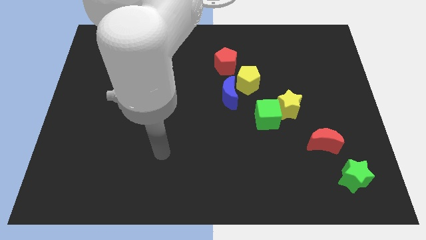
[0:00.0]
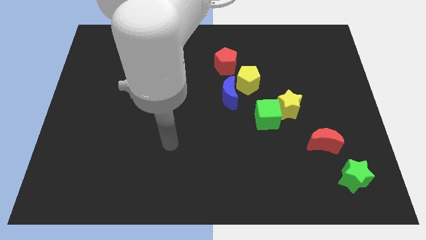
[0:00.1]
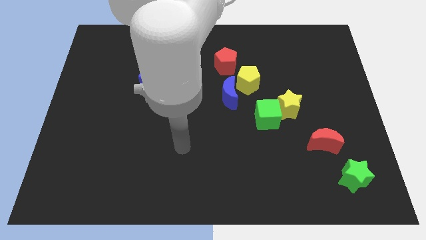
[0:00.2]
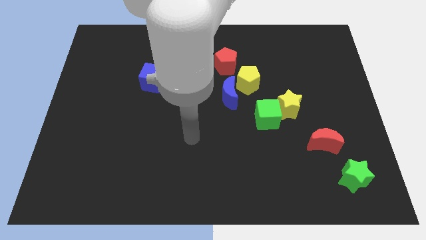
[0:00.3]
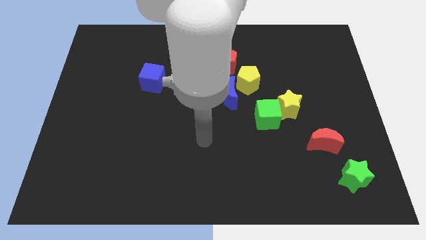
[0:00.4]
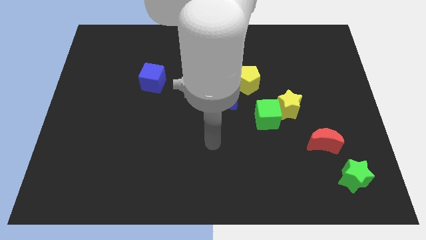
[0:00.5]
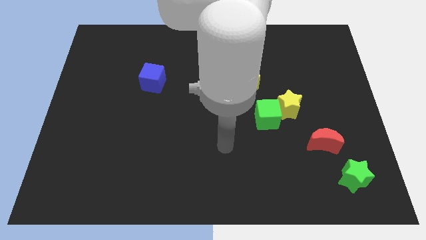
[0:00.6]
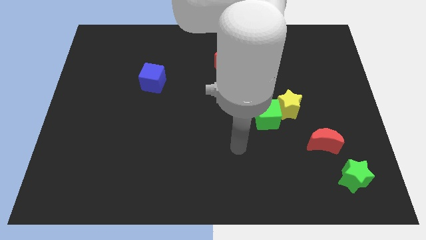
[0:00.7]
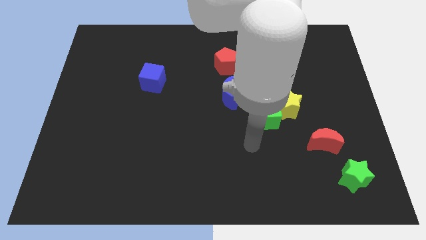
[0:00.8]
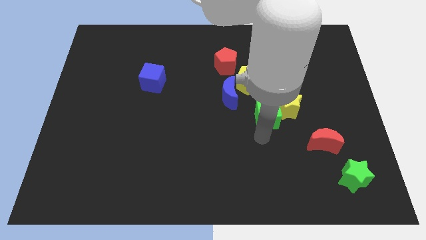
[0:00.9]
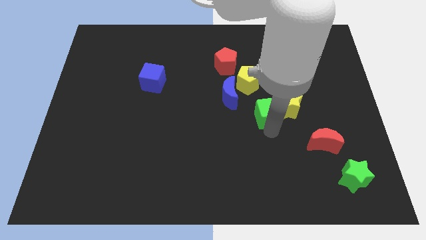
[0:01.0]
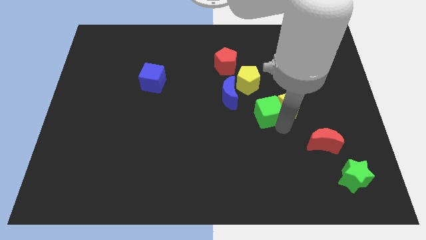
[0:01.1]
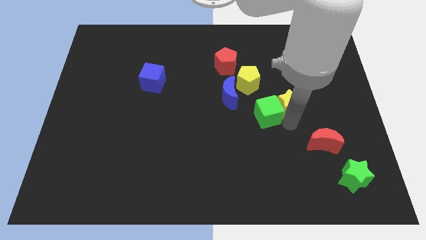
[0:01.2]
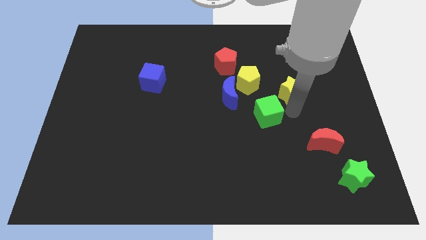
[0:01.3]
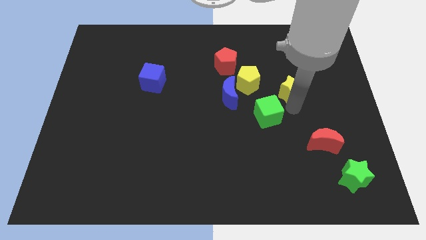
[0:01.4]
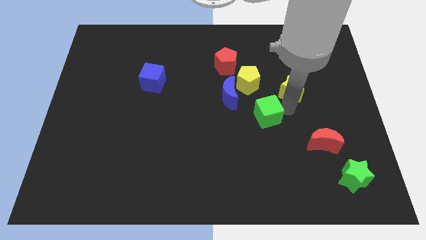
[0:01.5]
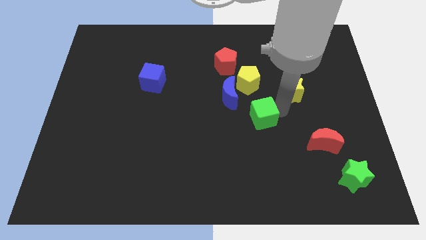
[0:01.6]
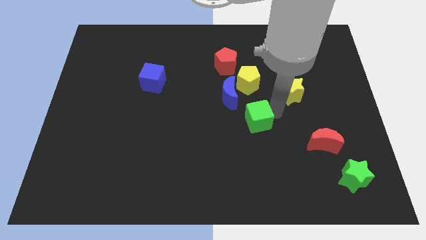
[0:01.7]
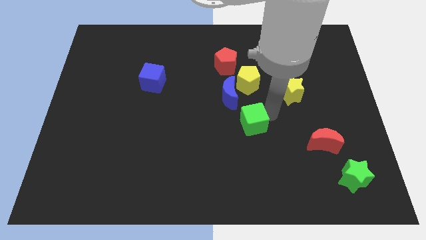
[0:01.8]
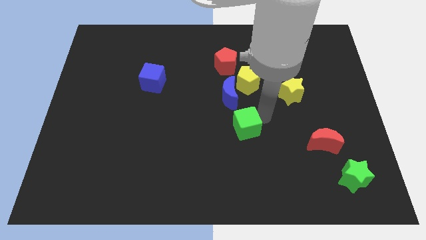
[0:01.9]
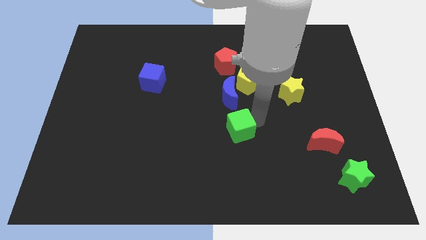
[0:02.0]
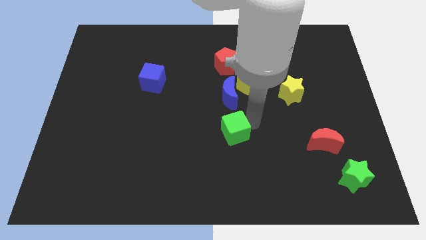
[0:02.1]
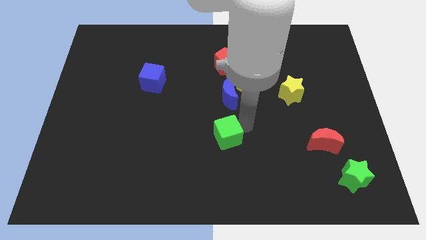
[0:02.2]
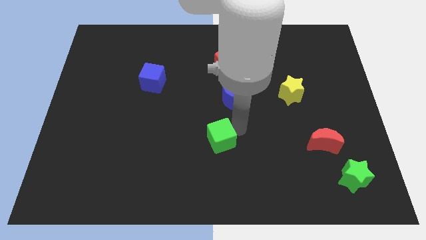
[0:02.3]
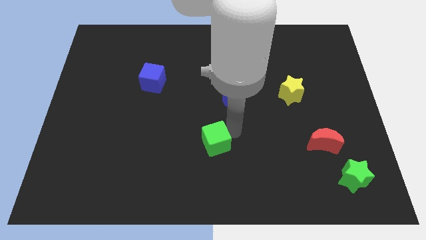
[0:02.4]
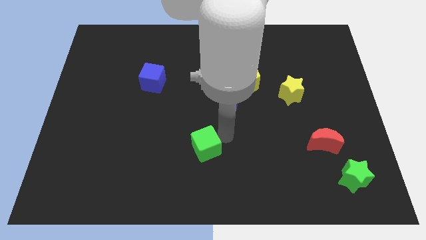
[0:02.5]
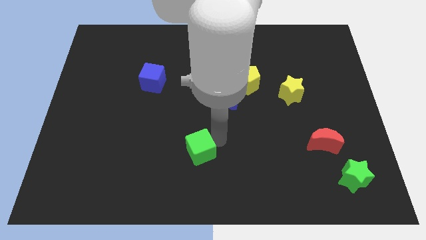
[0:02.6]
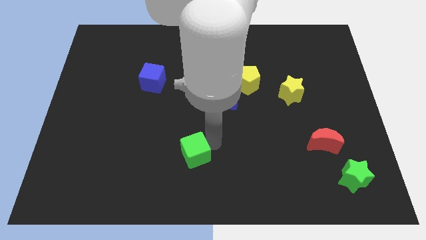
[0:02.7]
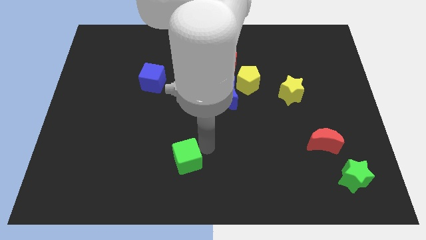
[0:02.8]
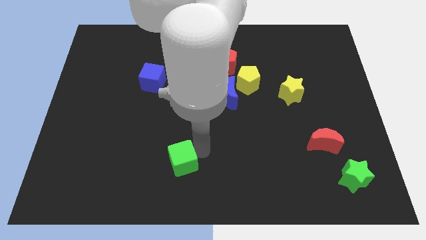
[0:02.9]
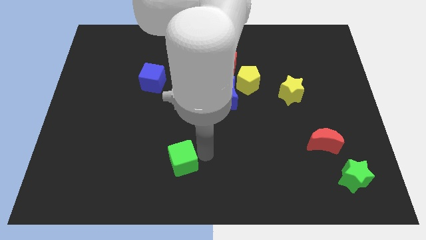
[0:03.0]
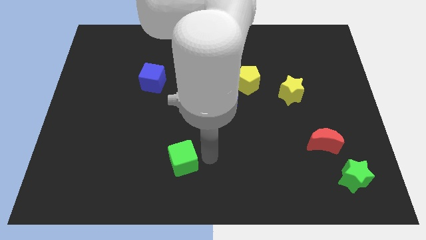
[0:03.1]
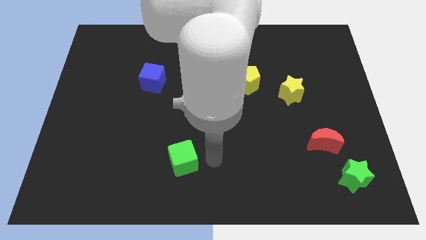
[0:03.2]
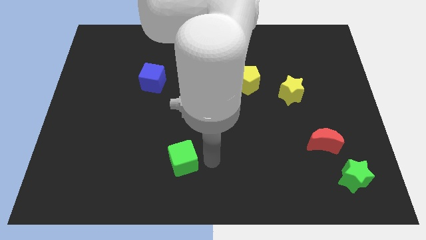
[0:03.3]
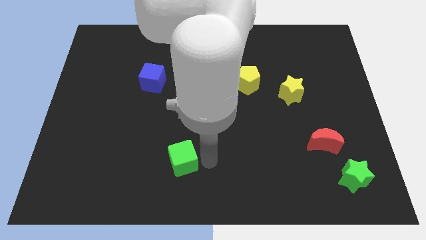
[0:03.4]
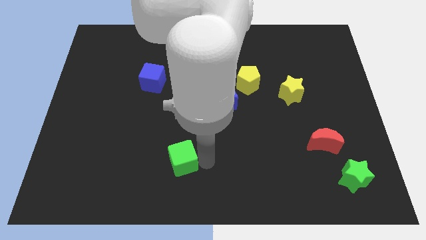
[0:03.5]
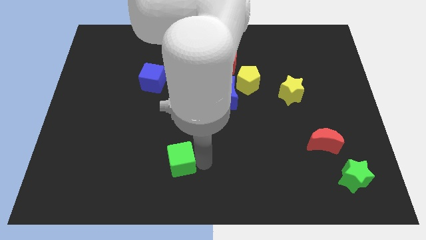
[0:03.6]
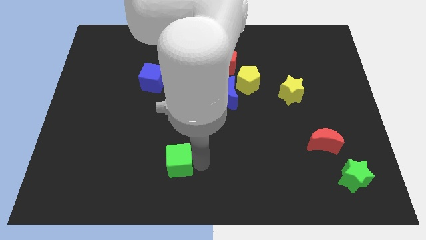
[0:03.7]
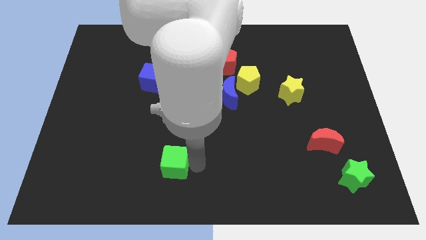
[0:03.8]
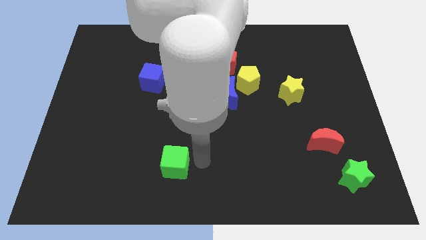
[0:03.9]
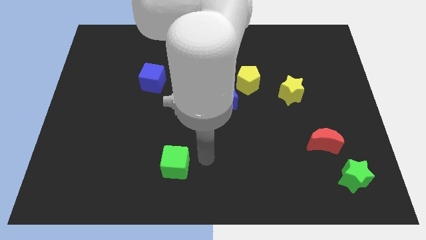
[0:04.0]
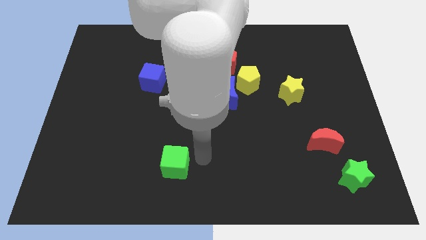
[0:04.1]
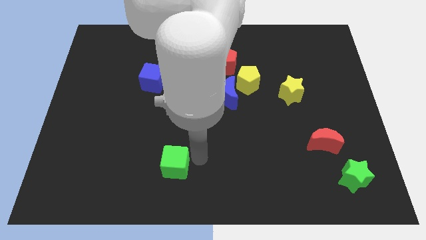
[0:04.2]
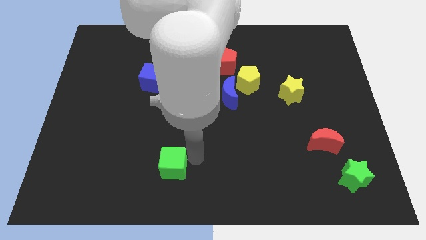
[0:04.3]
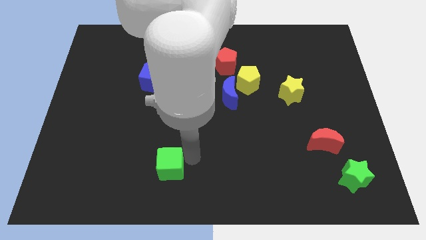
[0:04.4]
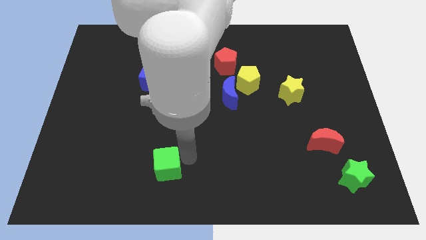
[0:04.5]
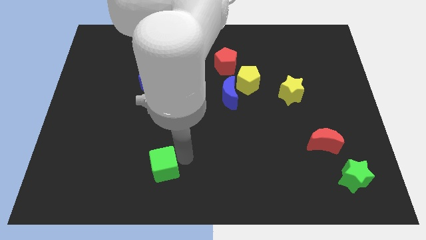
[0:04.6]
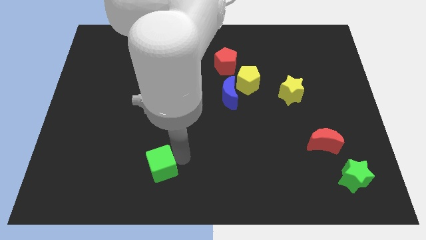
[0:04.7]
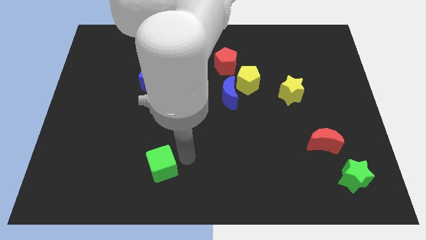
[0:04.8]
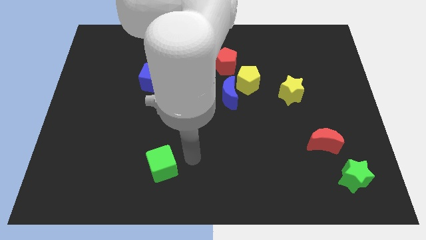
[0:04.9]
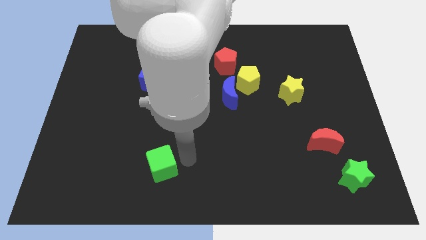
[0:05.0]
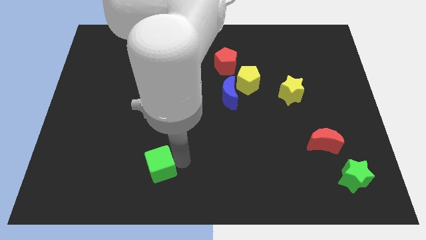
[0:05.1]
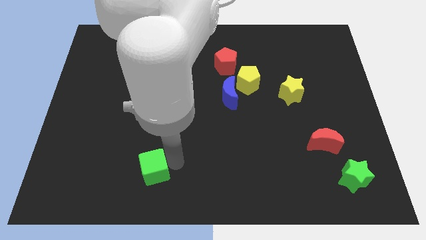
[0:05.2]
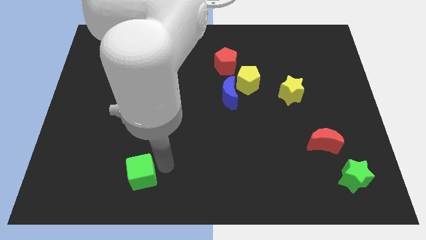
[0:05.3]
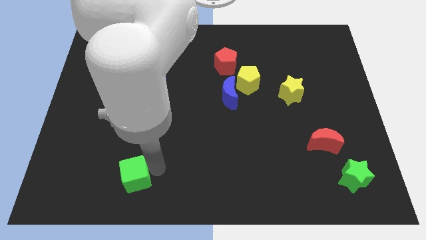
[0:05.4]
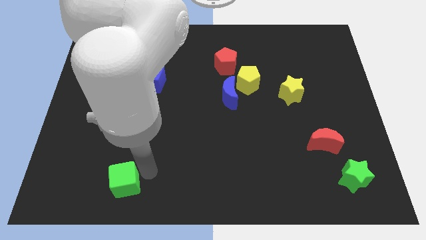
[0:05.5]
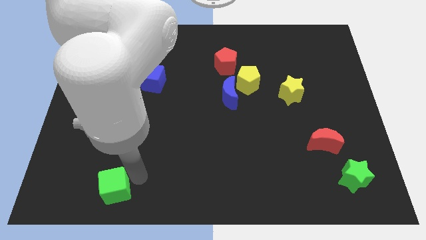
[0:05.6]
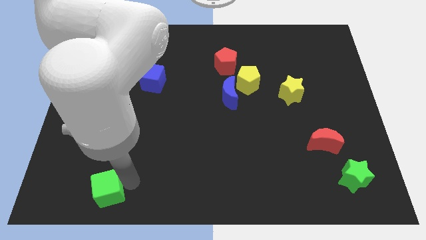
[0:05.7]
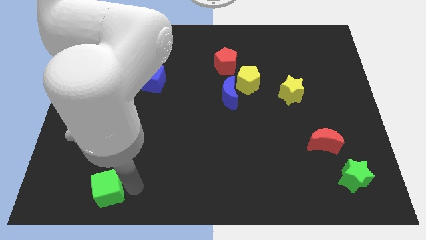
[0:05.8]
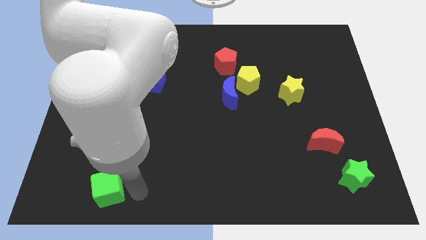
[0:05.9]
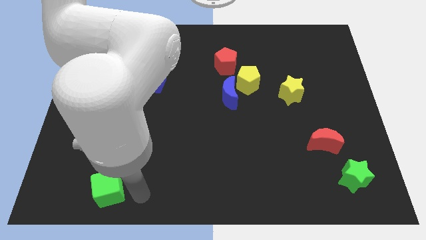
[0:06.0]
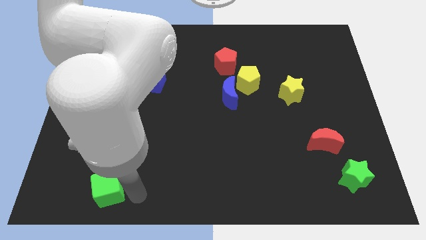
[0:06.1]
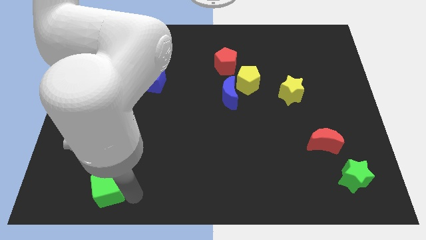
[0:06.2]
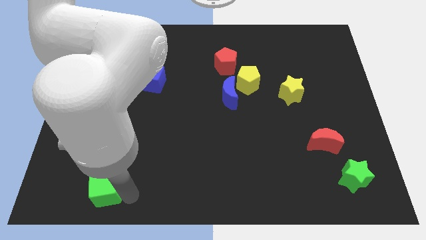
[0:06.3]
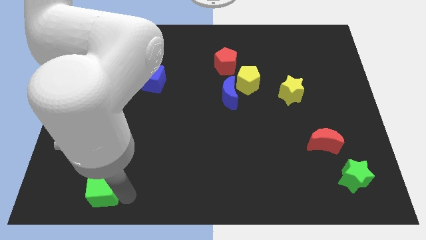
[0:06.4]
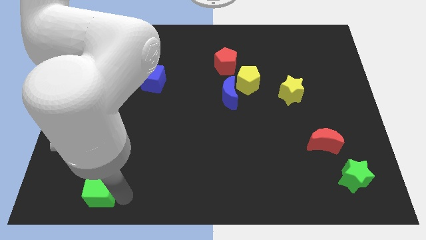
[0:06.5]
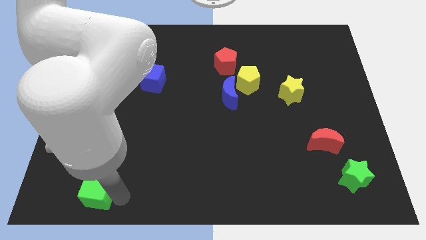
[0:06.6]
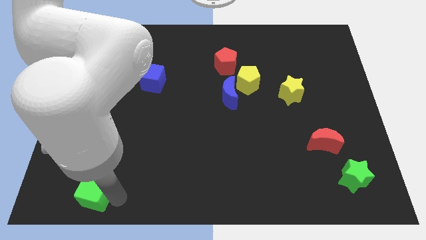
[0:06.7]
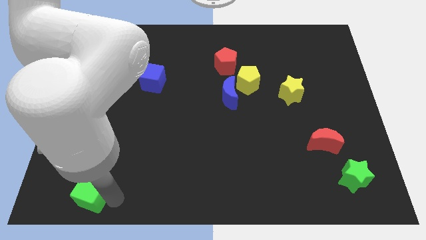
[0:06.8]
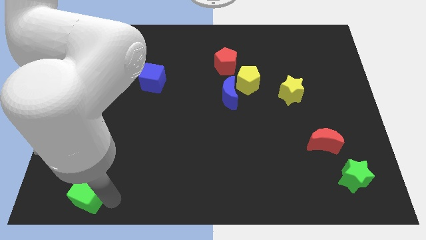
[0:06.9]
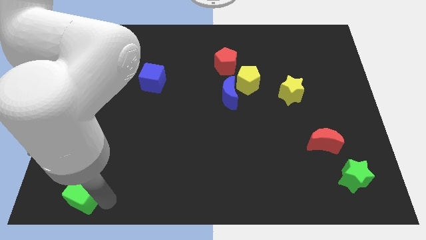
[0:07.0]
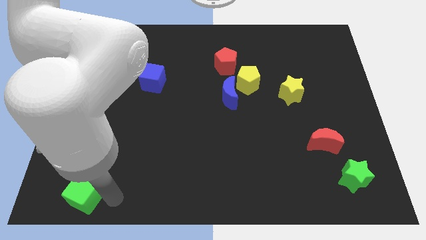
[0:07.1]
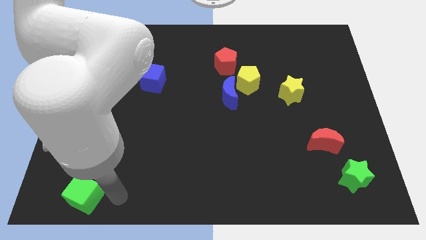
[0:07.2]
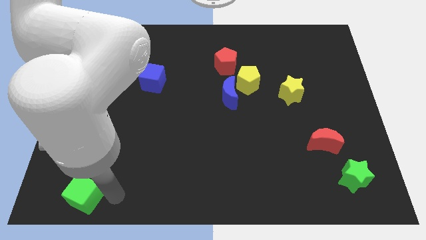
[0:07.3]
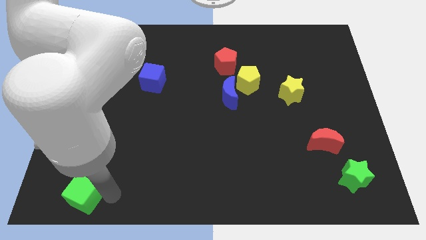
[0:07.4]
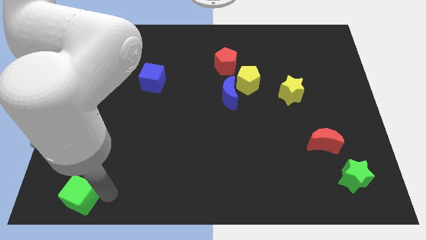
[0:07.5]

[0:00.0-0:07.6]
put the green cube to the lower left corner
